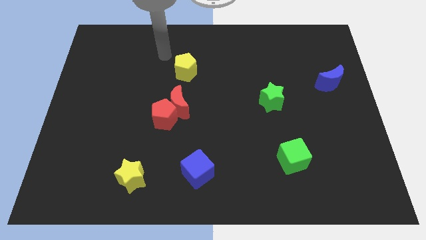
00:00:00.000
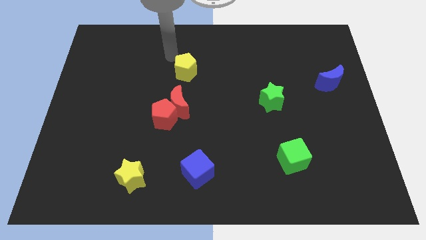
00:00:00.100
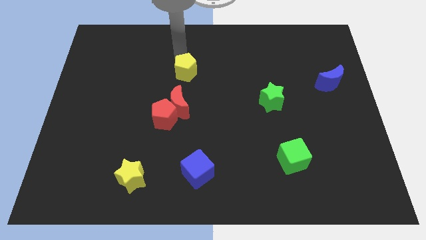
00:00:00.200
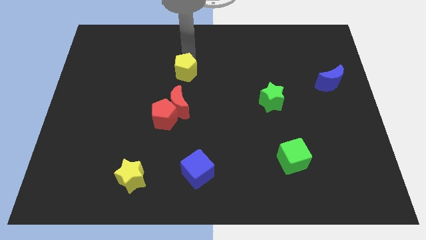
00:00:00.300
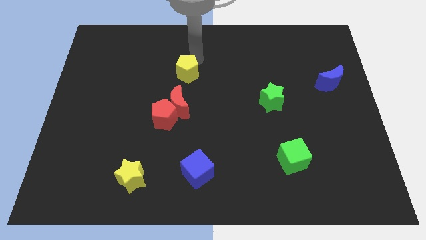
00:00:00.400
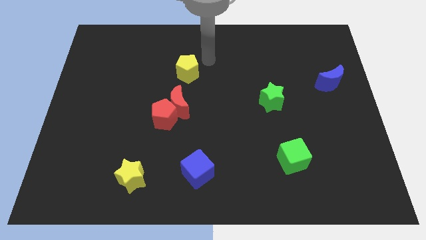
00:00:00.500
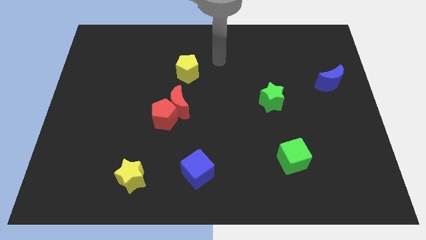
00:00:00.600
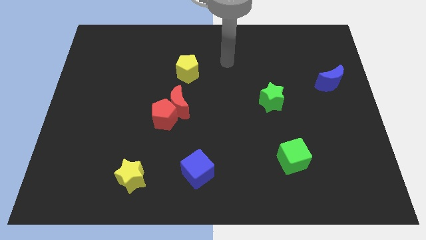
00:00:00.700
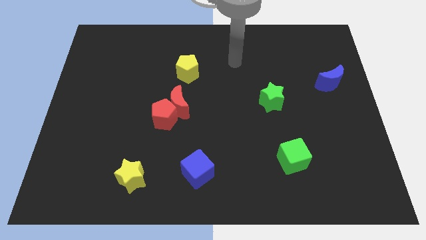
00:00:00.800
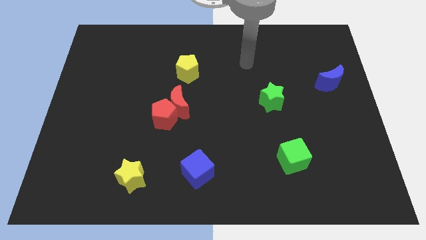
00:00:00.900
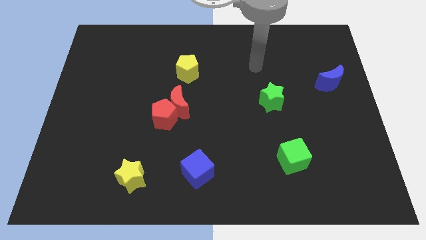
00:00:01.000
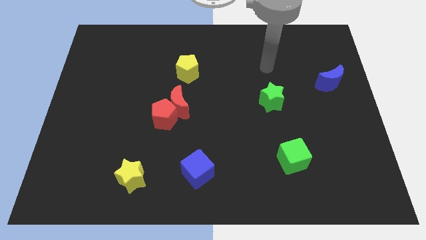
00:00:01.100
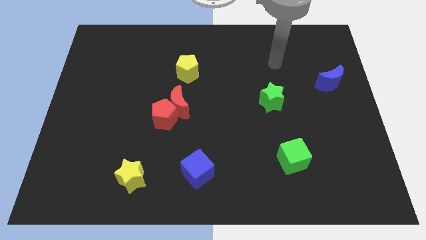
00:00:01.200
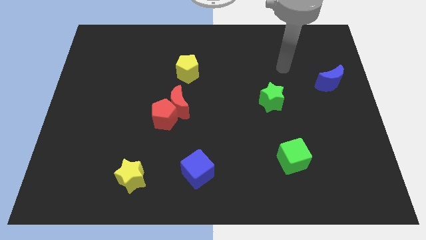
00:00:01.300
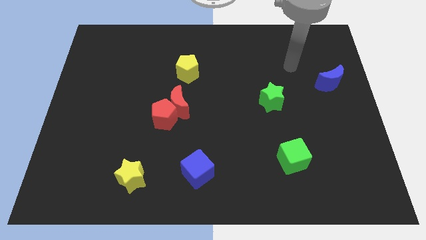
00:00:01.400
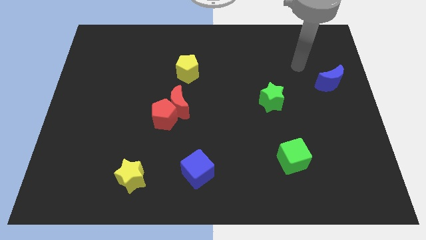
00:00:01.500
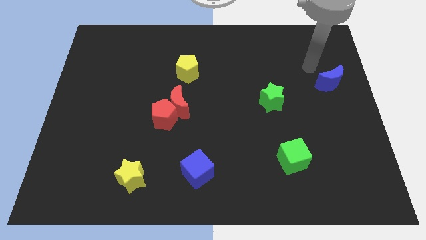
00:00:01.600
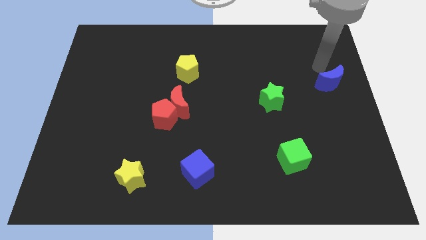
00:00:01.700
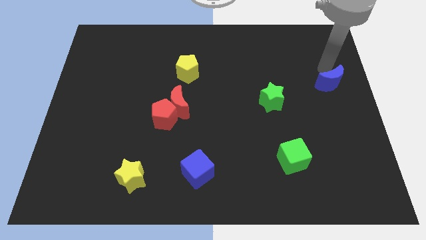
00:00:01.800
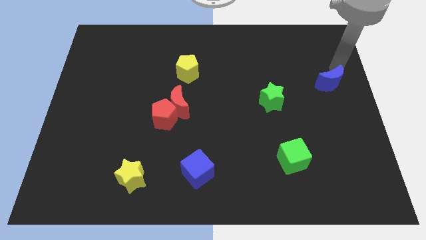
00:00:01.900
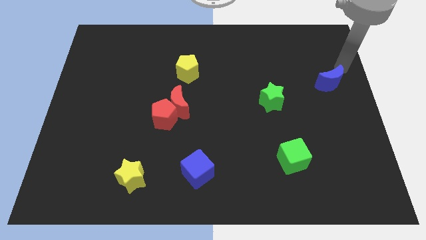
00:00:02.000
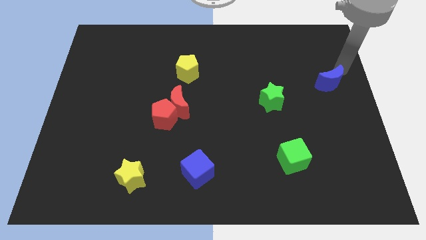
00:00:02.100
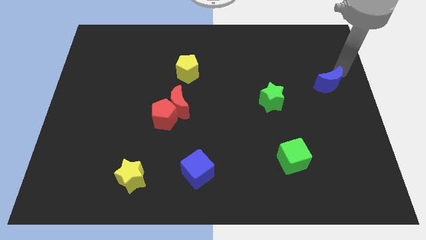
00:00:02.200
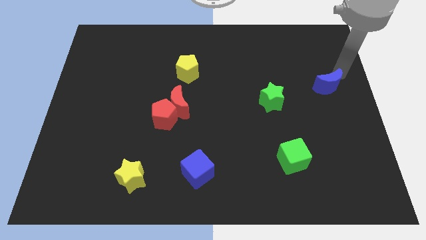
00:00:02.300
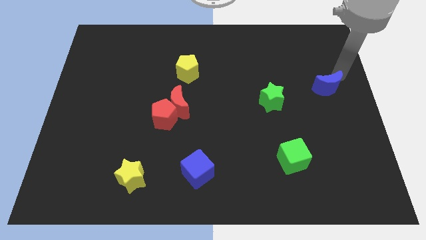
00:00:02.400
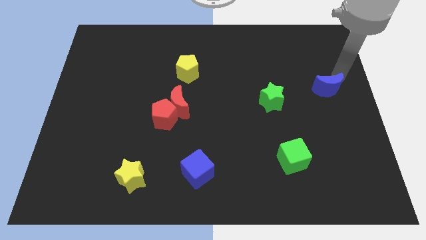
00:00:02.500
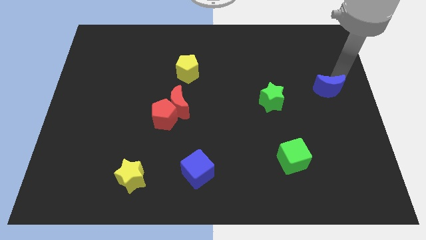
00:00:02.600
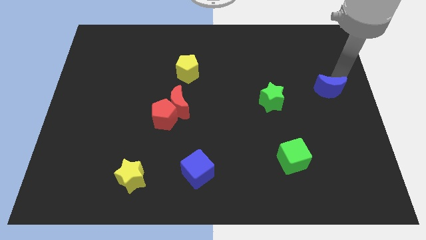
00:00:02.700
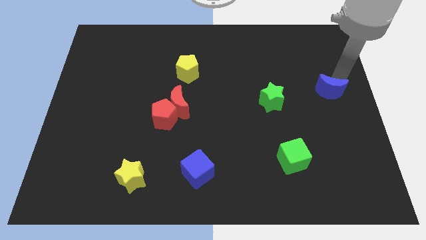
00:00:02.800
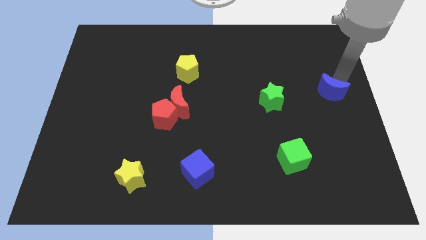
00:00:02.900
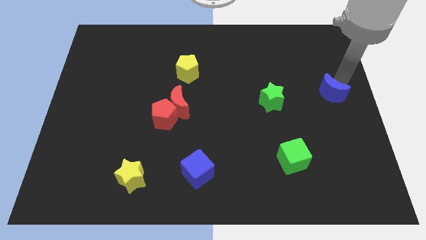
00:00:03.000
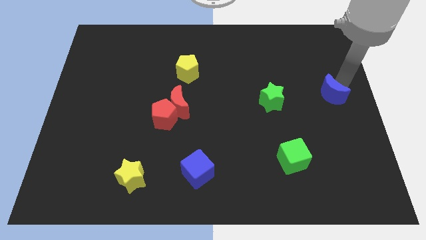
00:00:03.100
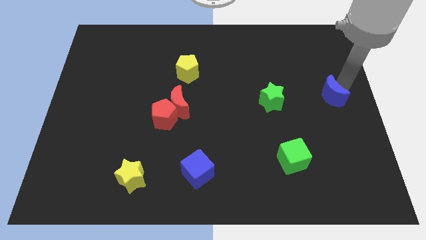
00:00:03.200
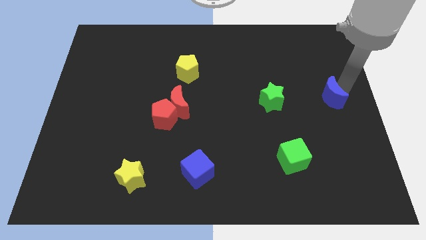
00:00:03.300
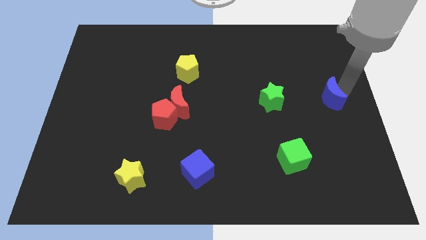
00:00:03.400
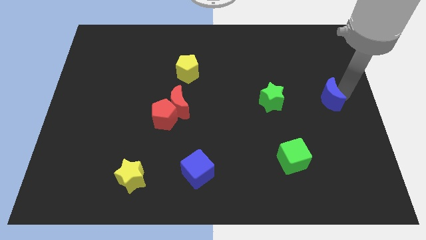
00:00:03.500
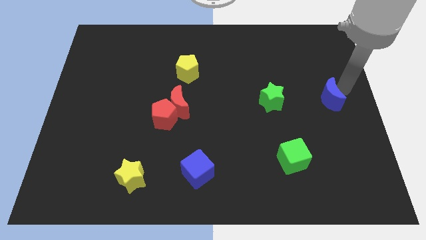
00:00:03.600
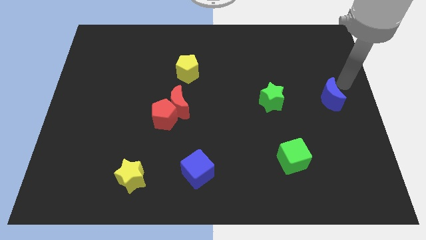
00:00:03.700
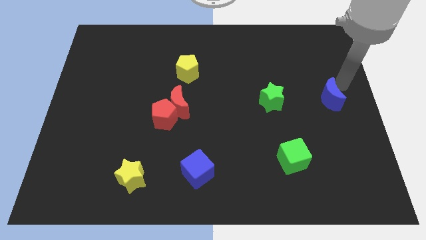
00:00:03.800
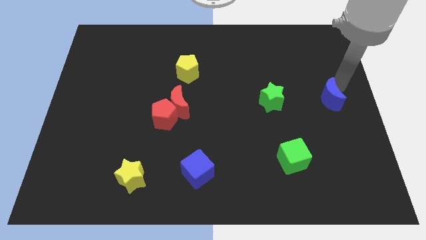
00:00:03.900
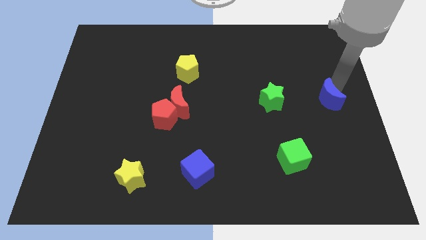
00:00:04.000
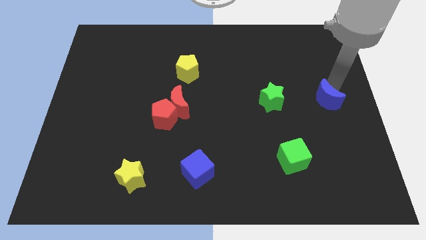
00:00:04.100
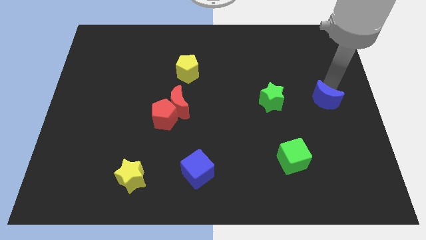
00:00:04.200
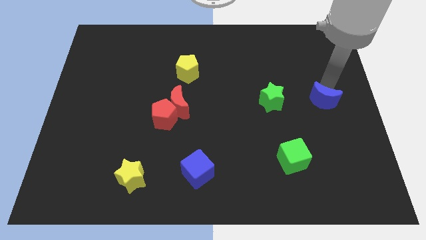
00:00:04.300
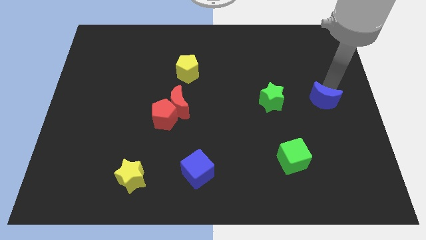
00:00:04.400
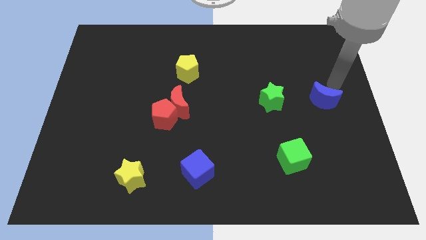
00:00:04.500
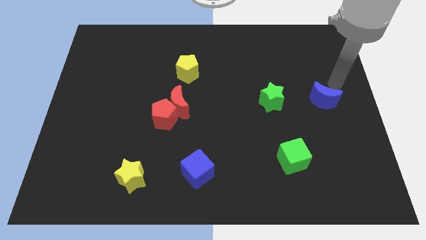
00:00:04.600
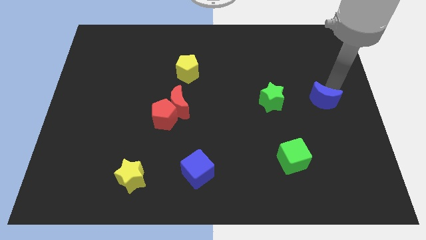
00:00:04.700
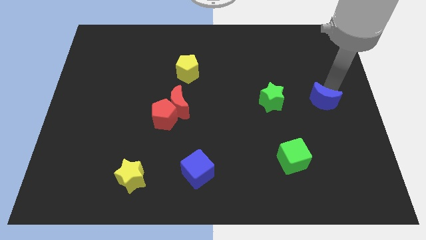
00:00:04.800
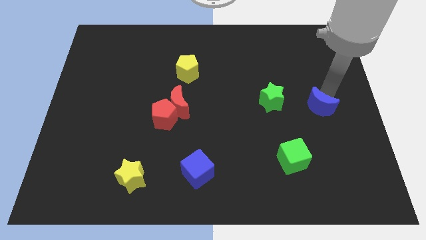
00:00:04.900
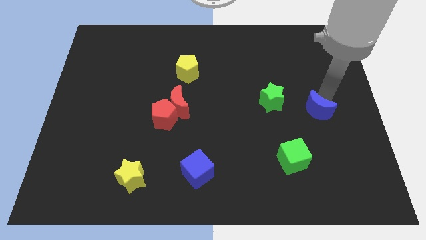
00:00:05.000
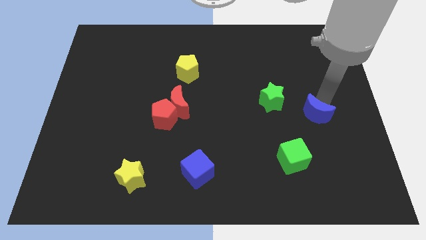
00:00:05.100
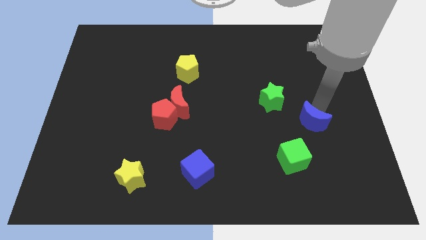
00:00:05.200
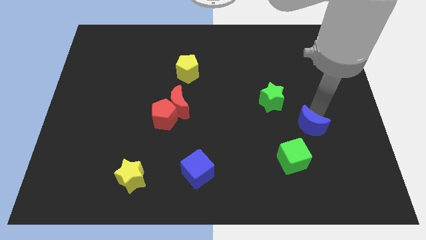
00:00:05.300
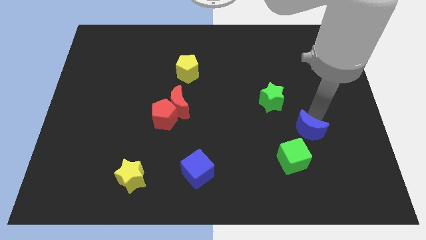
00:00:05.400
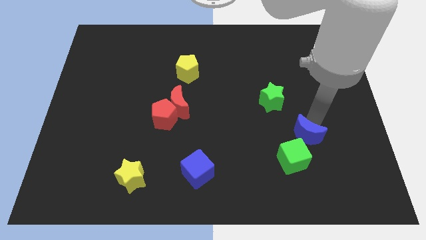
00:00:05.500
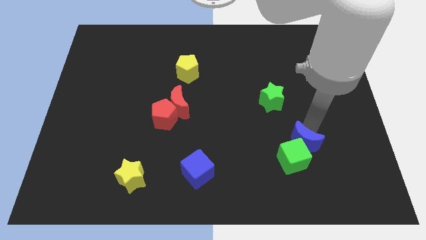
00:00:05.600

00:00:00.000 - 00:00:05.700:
move the blue moon to the green cube

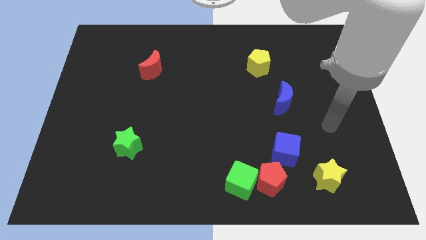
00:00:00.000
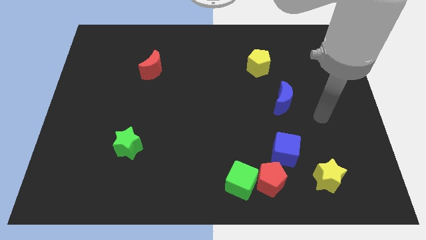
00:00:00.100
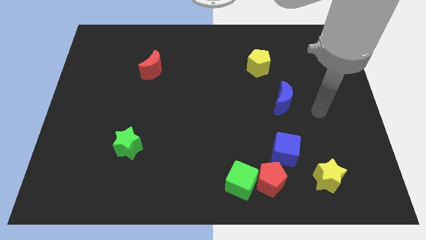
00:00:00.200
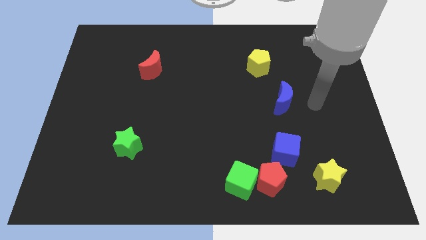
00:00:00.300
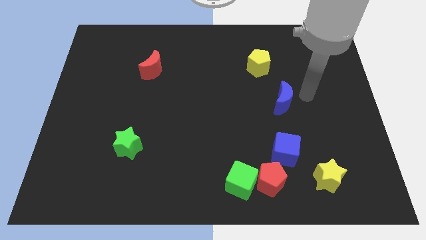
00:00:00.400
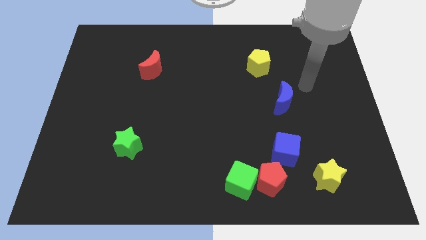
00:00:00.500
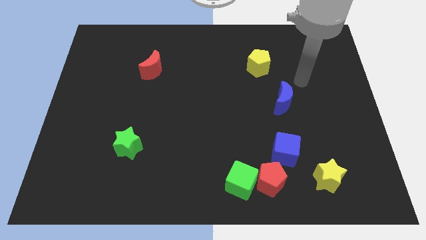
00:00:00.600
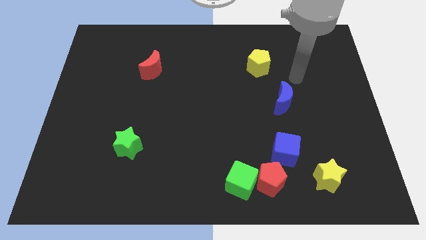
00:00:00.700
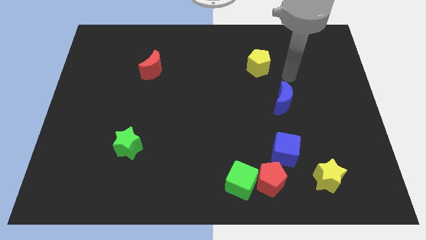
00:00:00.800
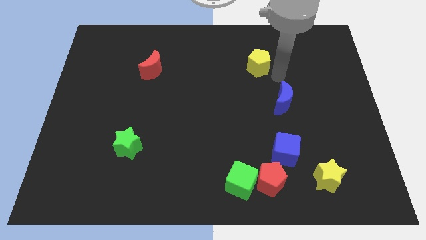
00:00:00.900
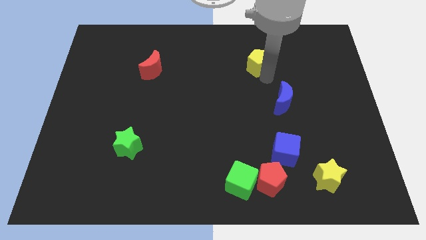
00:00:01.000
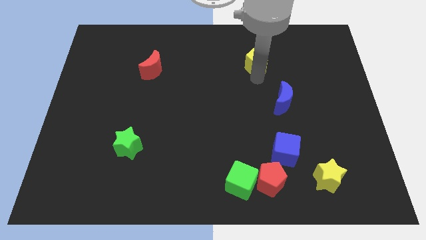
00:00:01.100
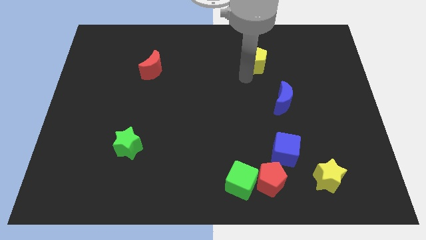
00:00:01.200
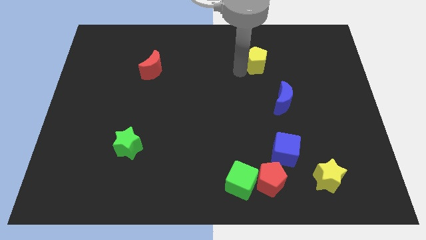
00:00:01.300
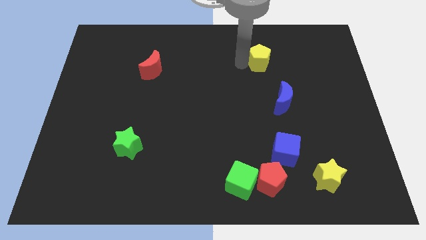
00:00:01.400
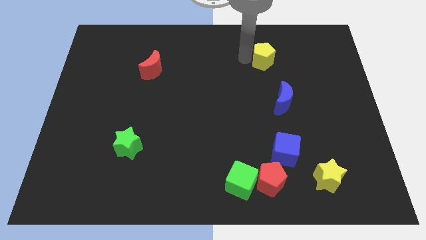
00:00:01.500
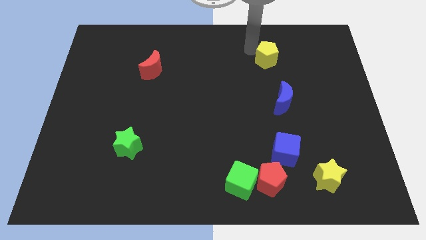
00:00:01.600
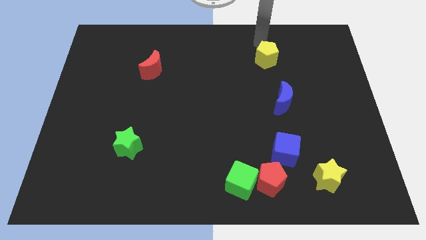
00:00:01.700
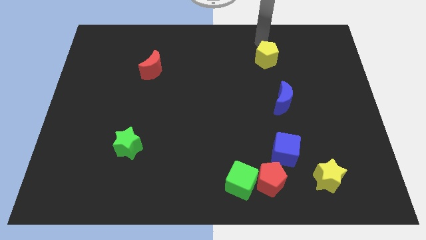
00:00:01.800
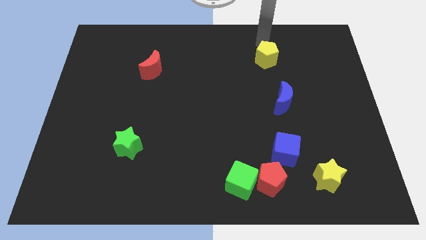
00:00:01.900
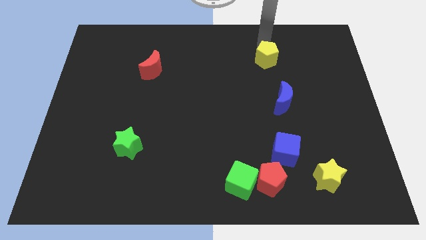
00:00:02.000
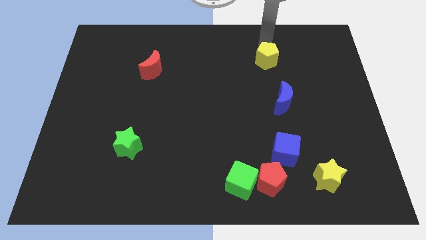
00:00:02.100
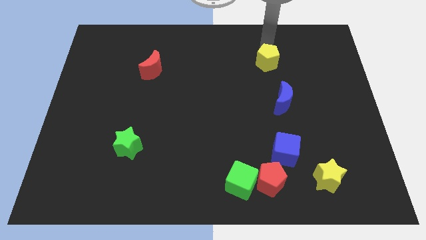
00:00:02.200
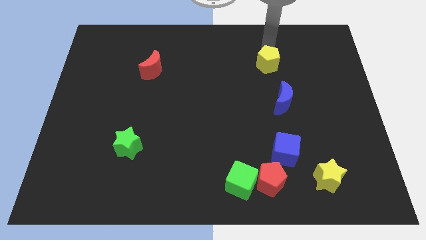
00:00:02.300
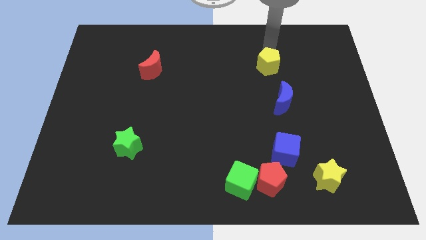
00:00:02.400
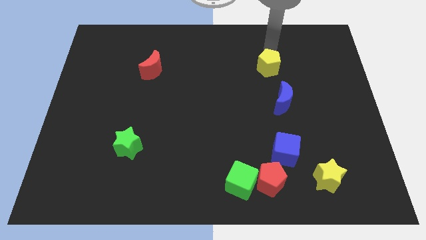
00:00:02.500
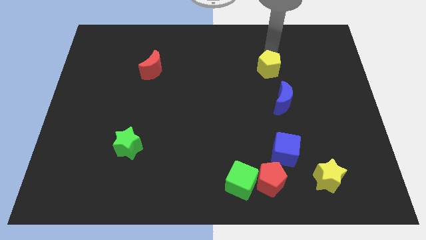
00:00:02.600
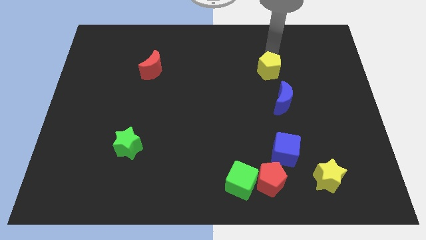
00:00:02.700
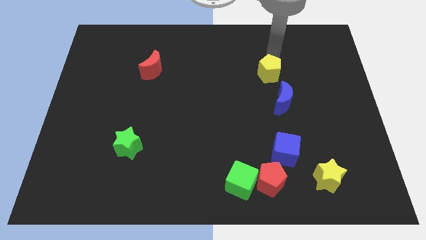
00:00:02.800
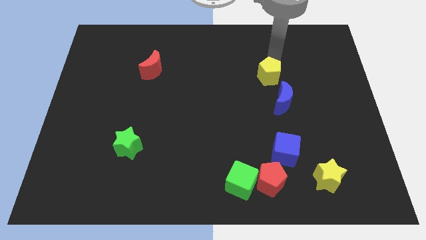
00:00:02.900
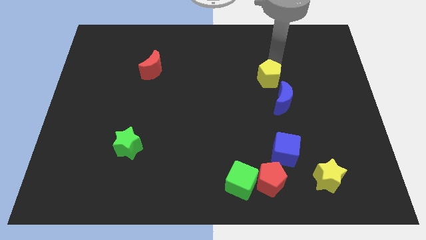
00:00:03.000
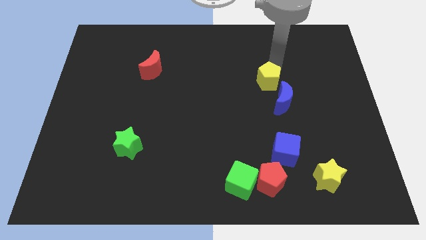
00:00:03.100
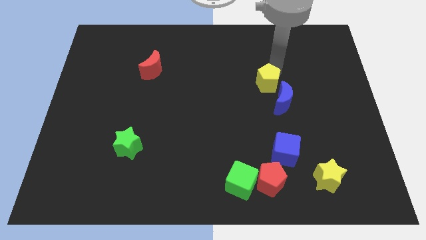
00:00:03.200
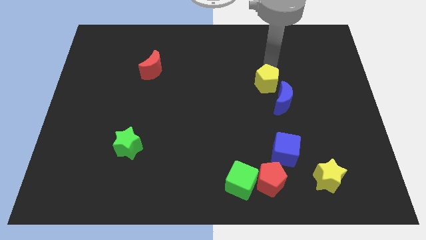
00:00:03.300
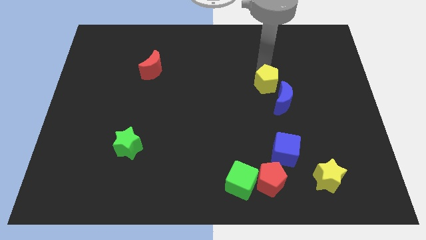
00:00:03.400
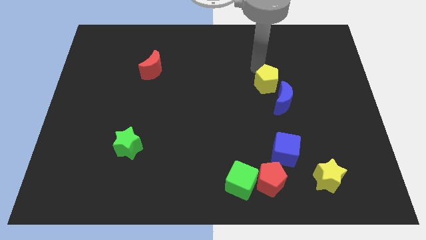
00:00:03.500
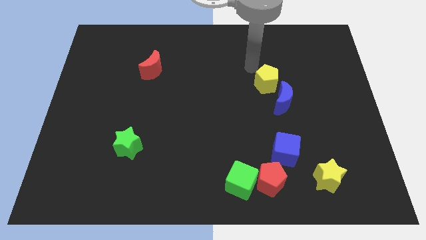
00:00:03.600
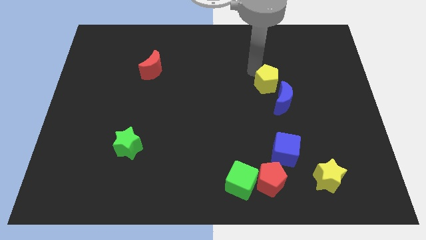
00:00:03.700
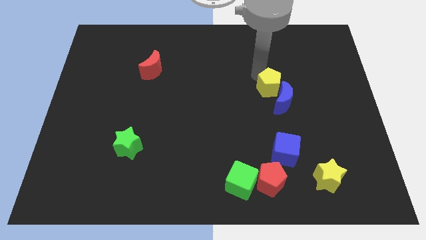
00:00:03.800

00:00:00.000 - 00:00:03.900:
slide the yellow pentagon to the blue moon
